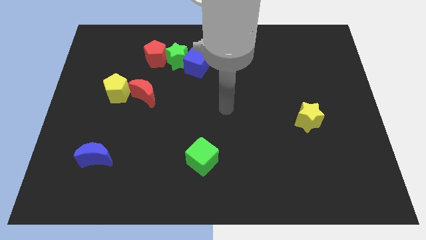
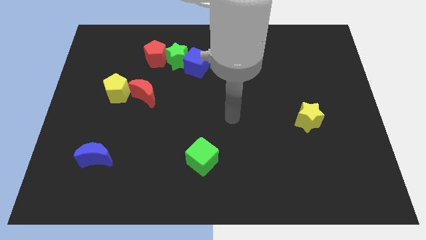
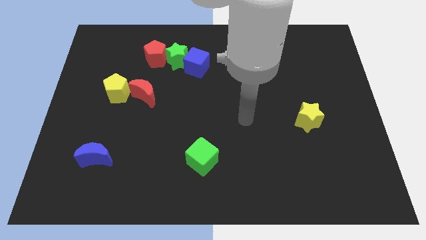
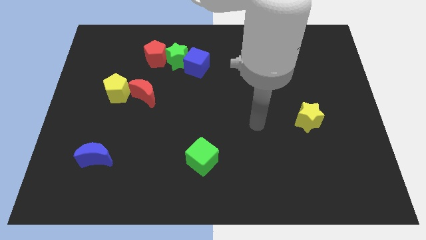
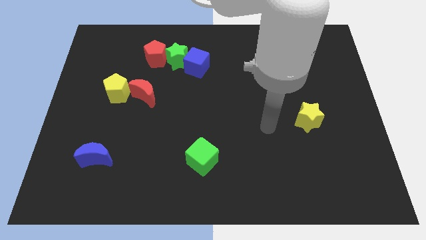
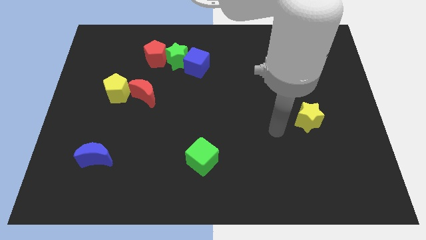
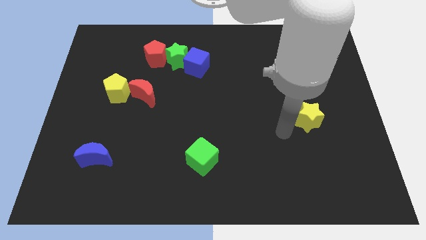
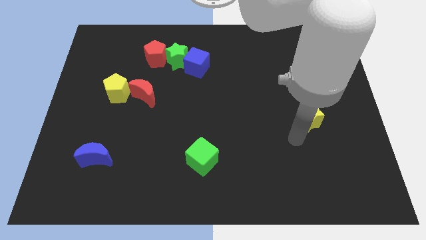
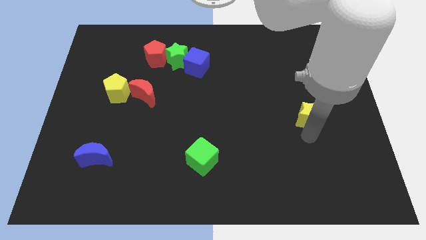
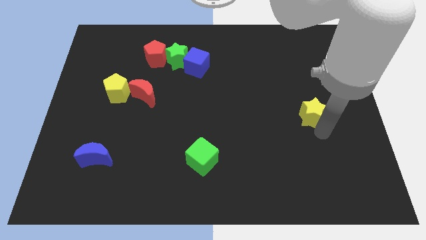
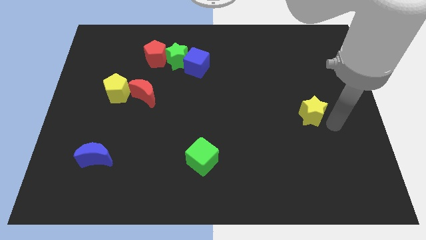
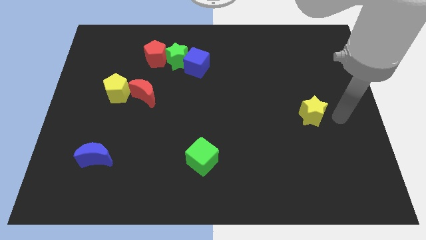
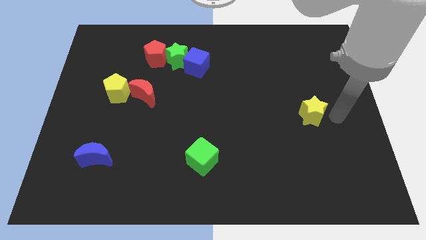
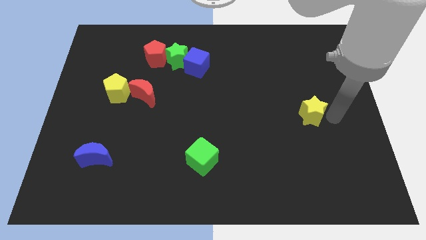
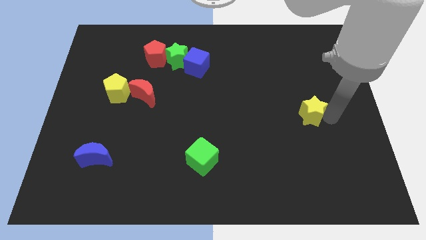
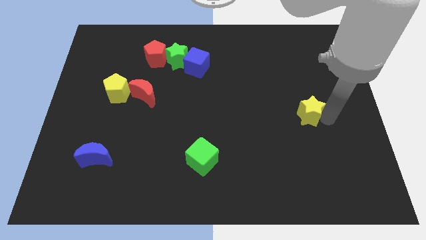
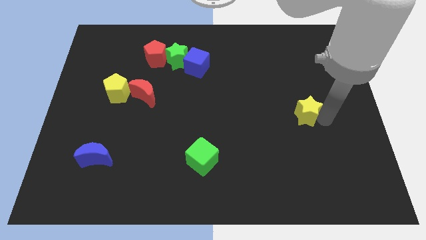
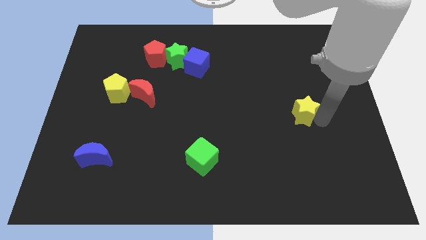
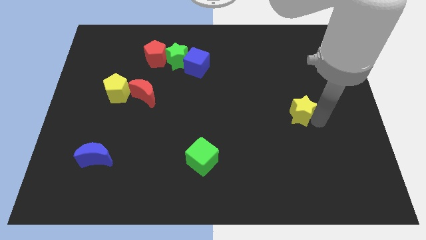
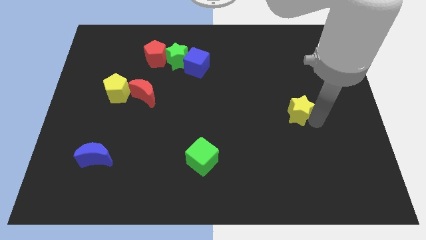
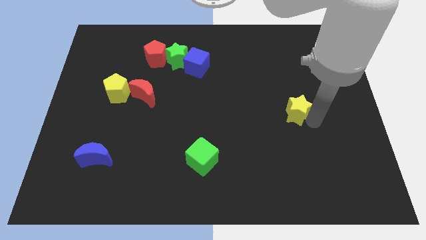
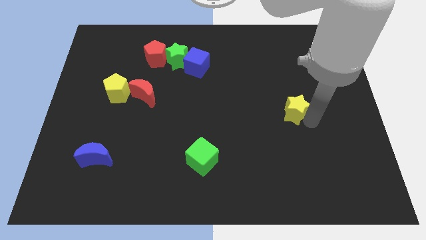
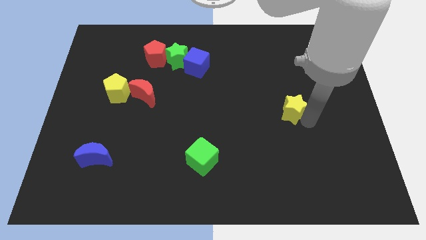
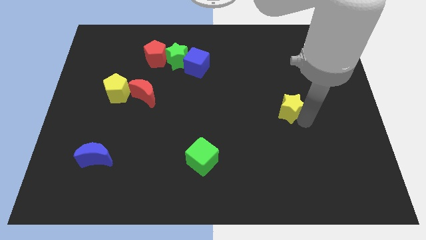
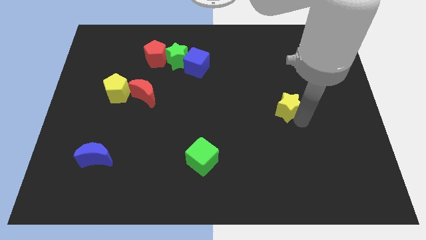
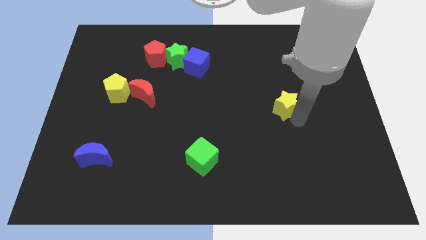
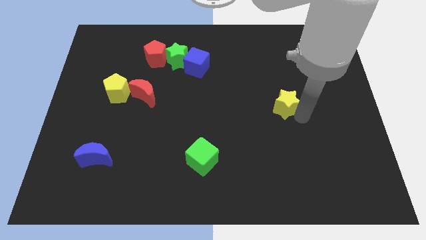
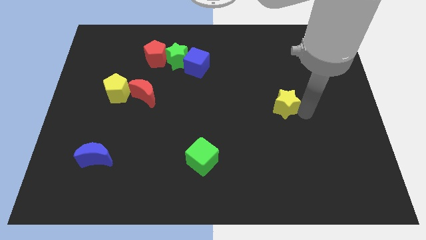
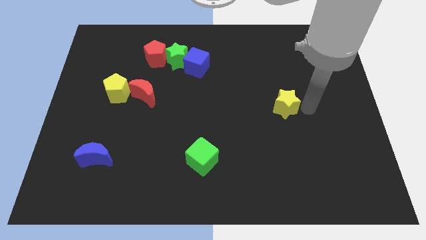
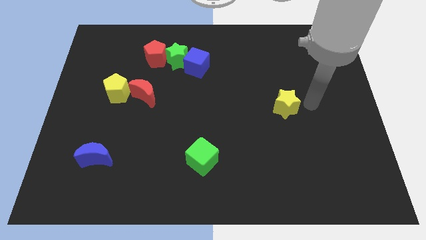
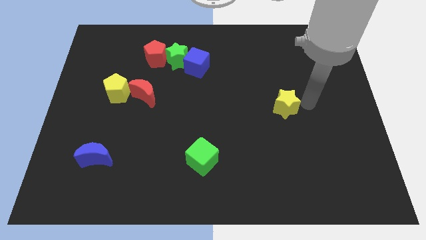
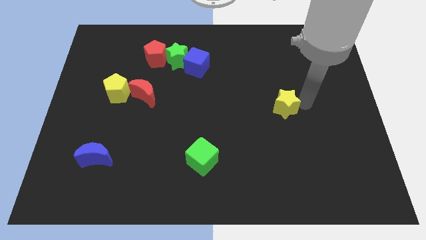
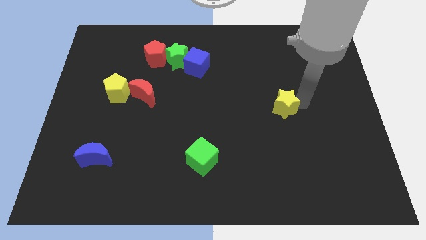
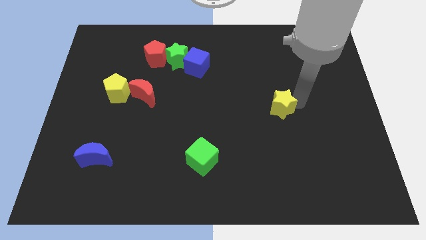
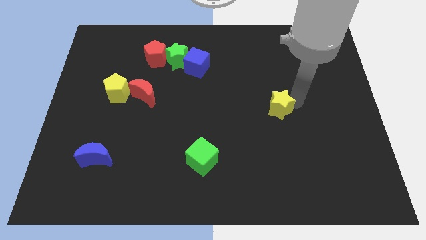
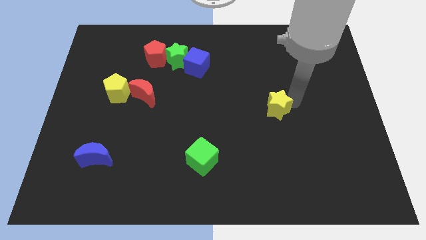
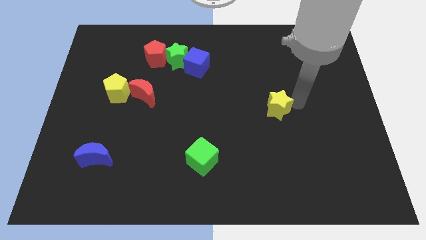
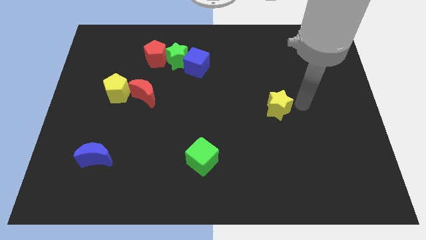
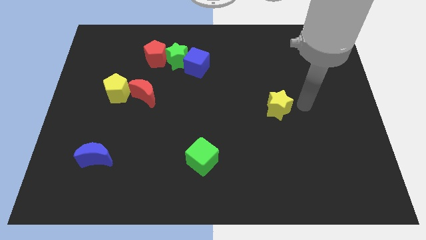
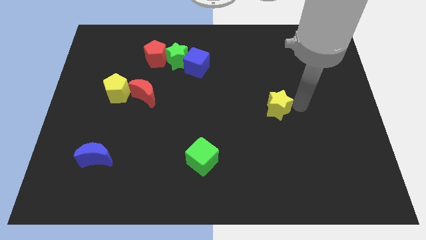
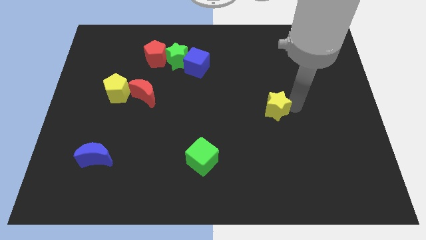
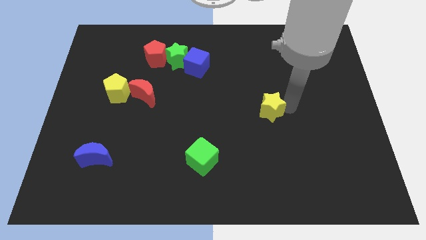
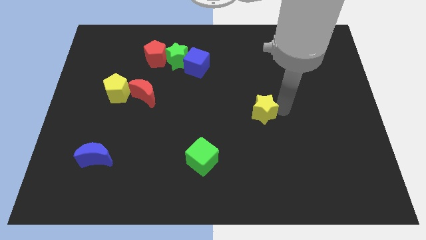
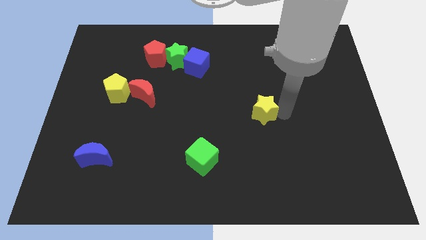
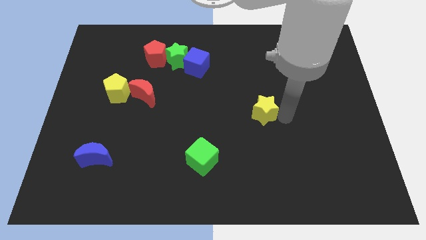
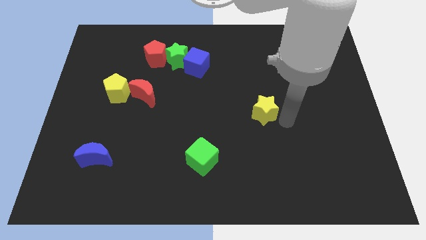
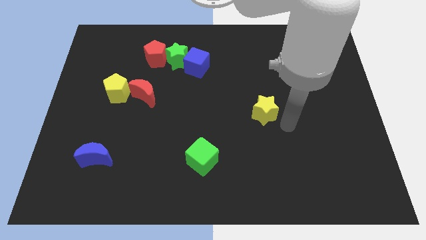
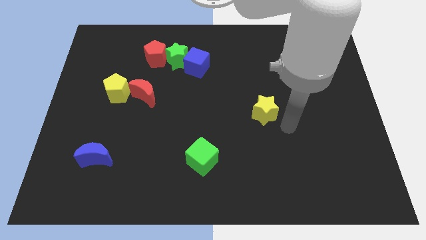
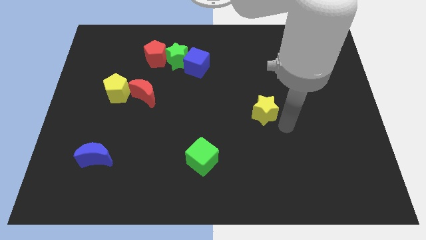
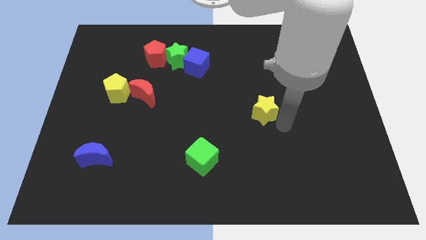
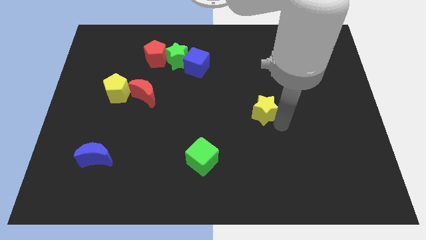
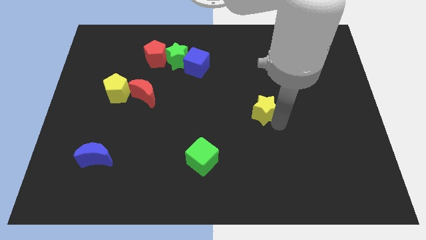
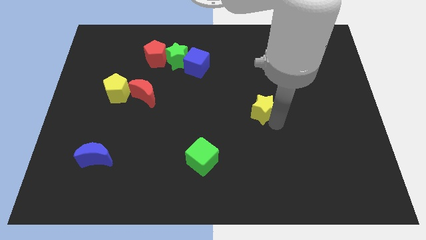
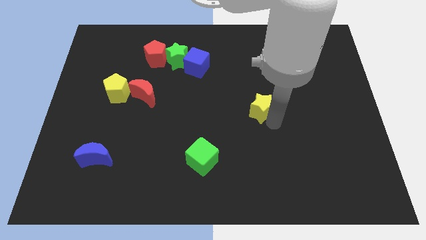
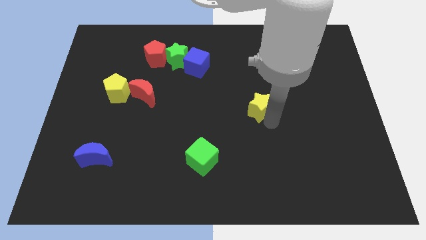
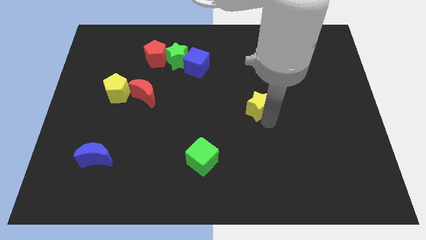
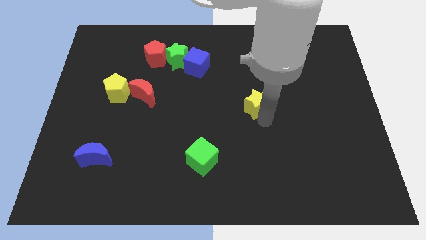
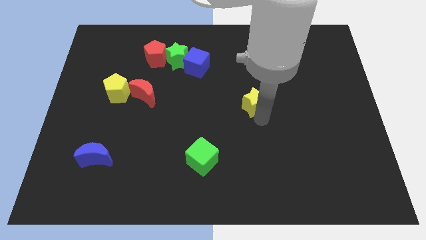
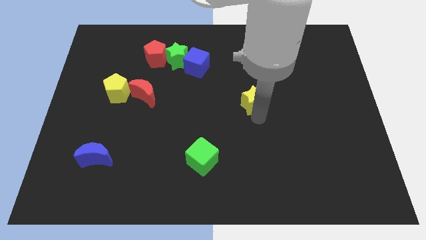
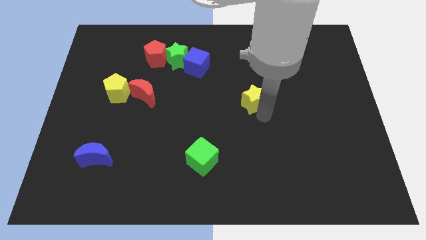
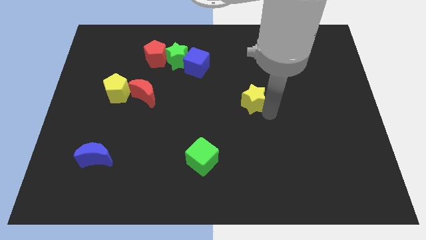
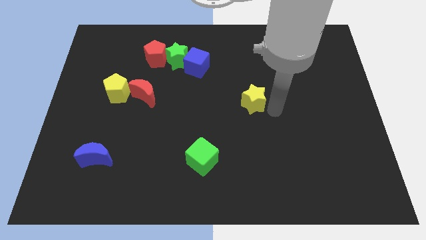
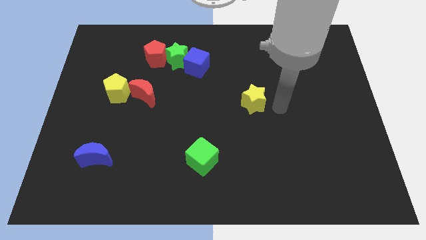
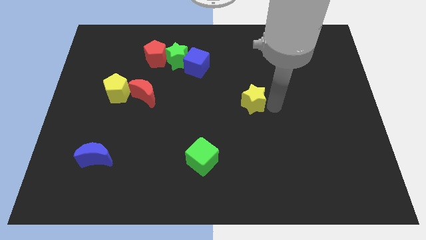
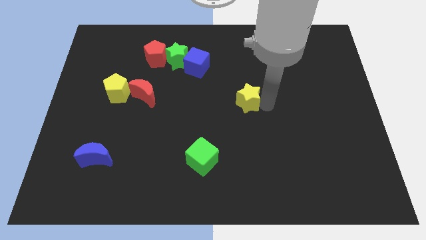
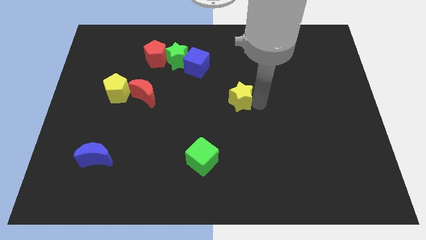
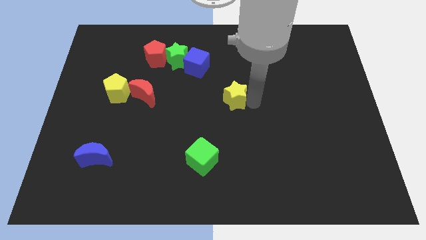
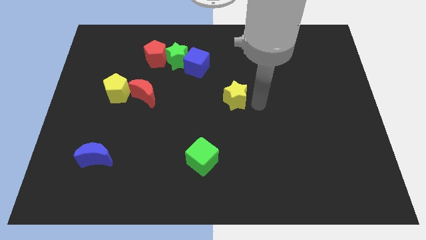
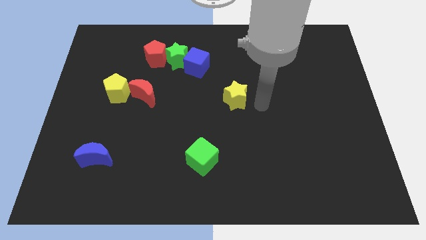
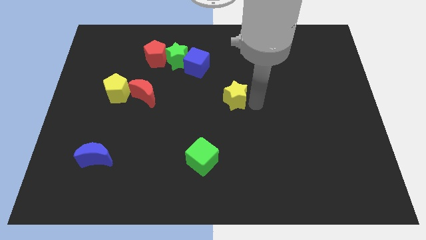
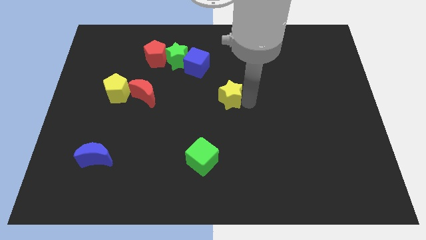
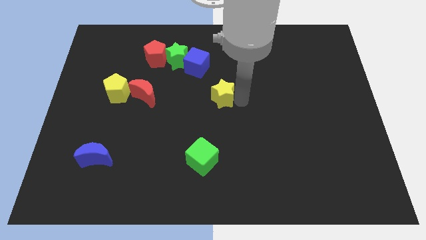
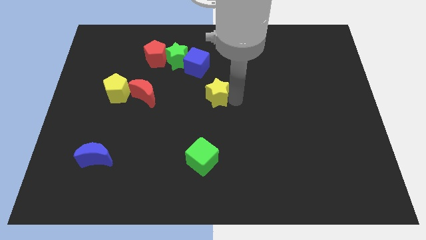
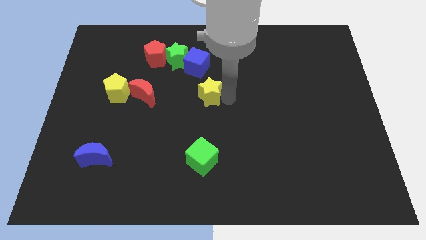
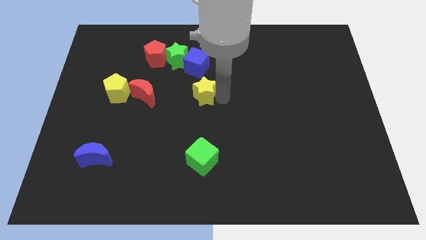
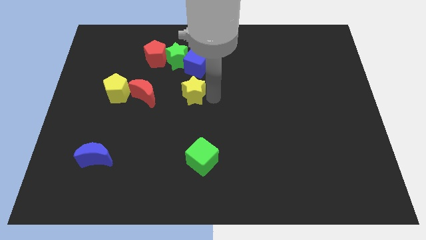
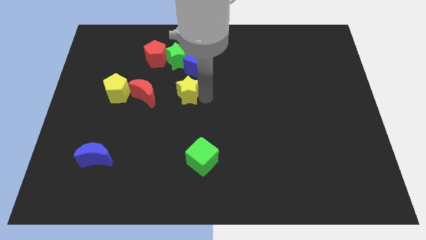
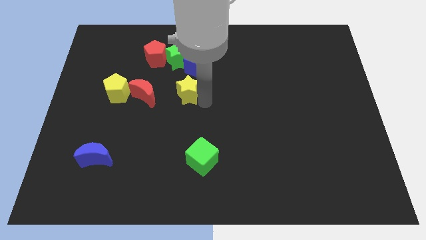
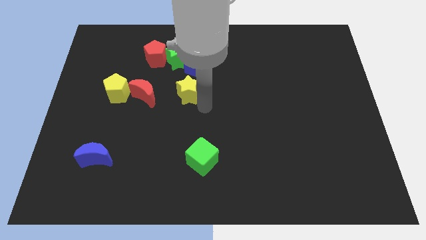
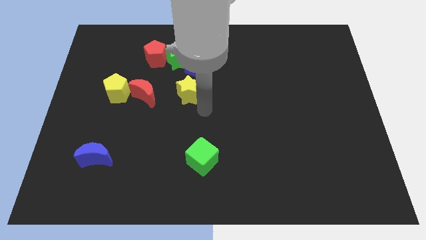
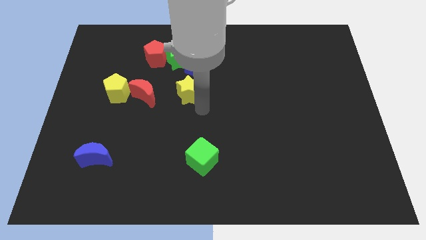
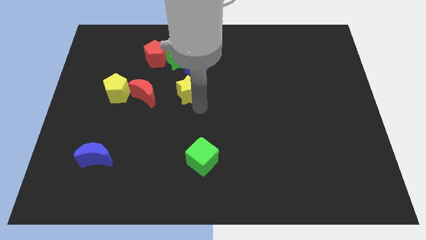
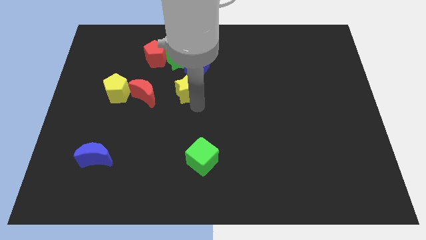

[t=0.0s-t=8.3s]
push the yellow star to the bottom left side of the blue cube
